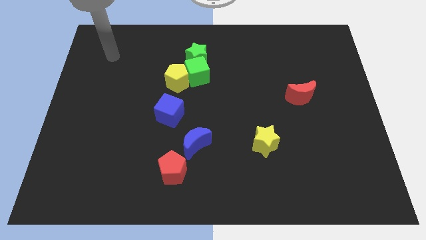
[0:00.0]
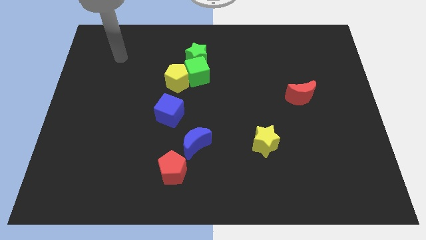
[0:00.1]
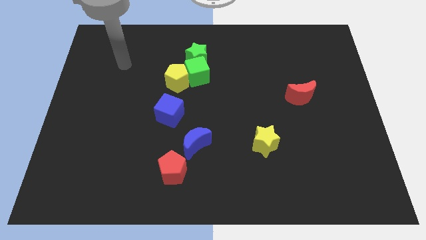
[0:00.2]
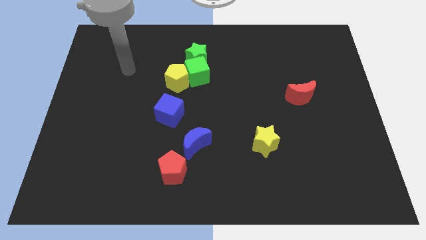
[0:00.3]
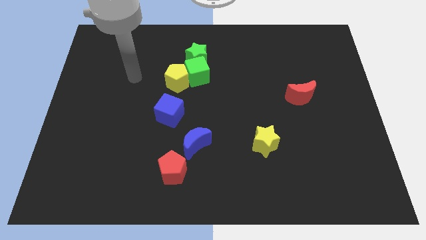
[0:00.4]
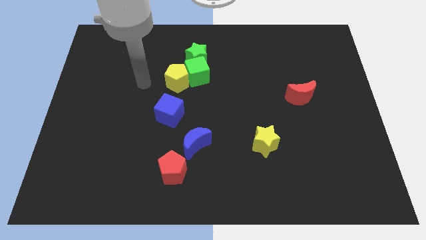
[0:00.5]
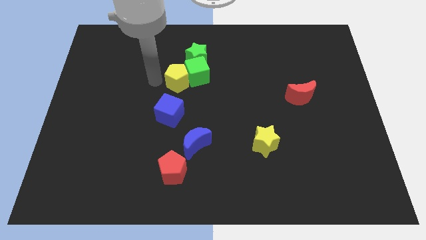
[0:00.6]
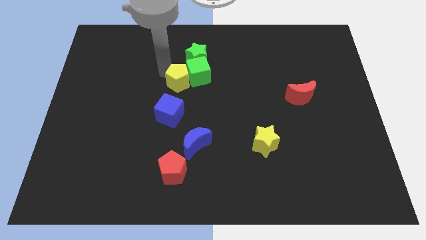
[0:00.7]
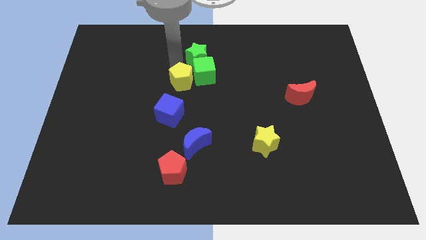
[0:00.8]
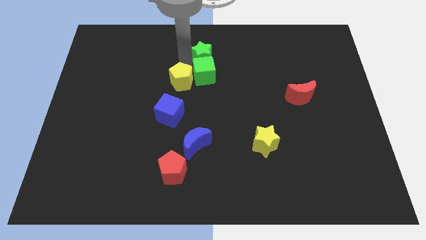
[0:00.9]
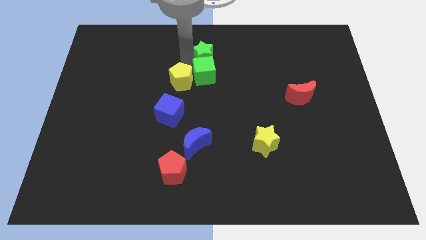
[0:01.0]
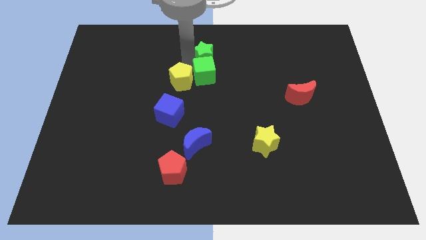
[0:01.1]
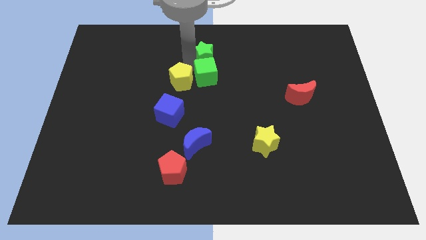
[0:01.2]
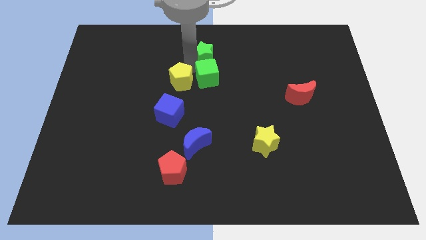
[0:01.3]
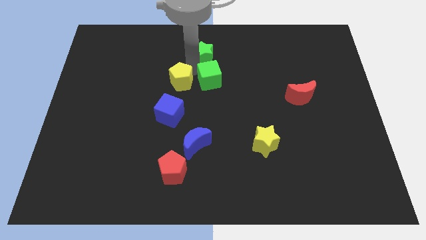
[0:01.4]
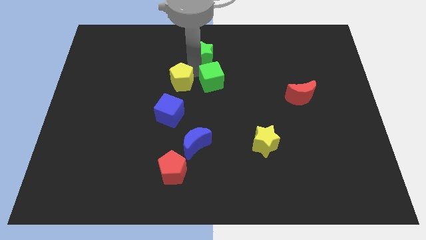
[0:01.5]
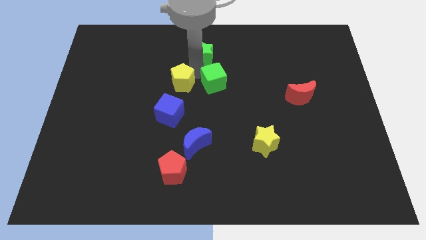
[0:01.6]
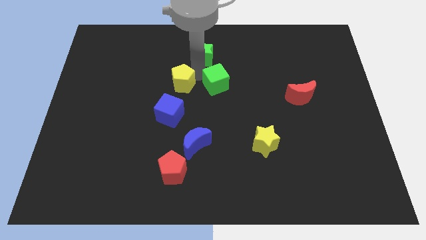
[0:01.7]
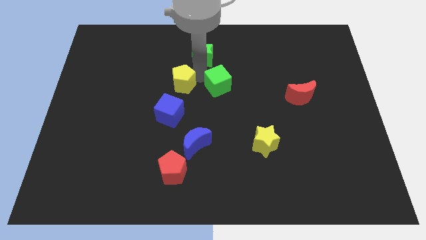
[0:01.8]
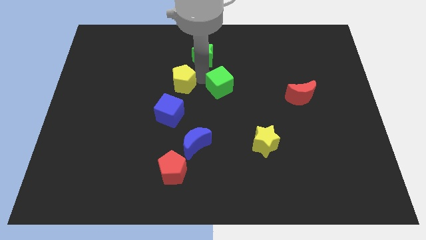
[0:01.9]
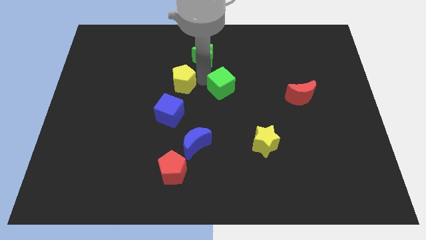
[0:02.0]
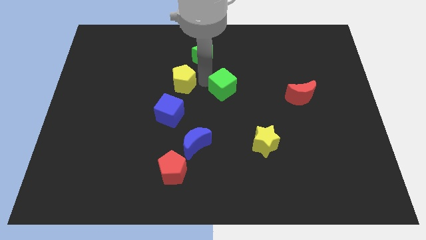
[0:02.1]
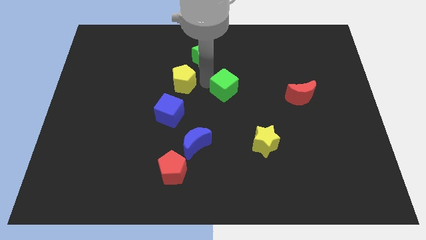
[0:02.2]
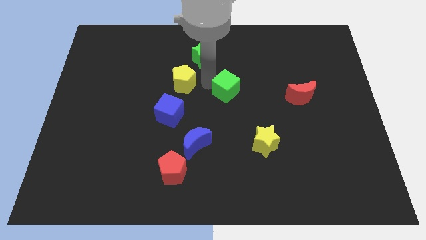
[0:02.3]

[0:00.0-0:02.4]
separate the green cube from the green star and yellow pentagon

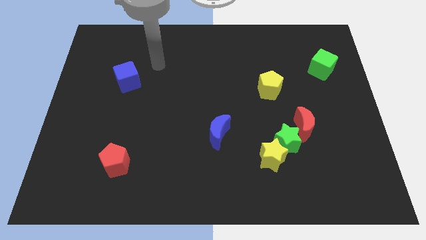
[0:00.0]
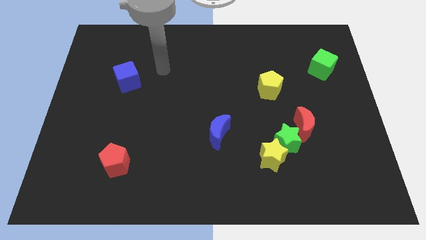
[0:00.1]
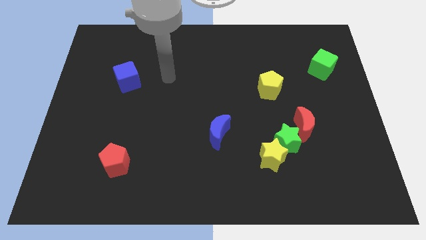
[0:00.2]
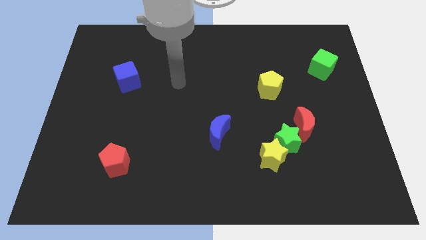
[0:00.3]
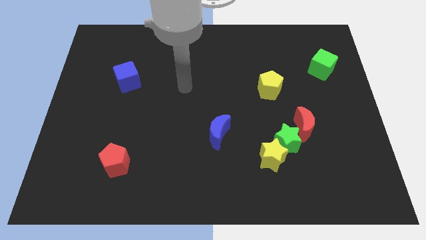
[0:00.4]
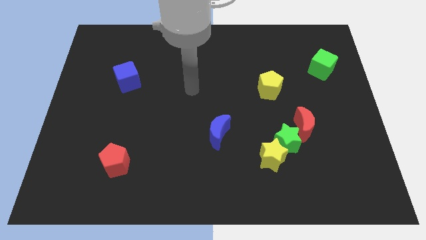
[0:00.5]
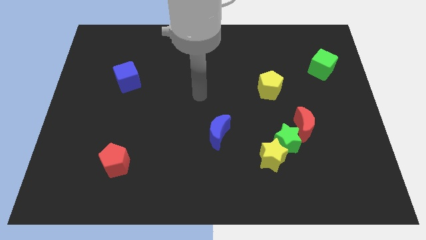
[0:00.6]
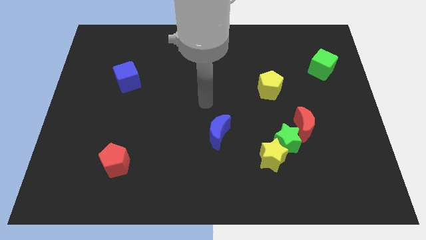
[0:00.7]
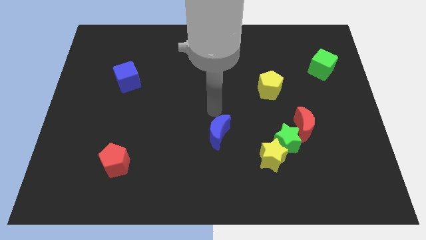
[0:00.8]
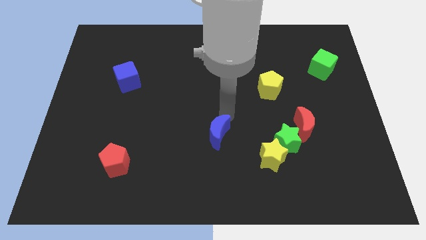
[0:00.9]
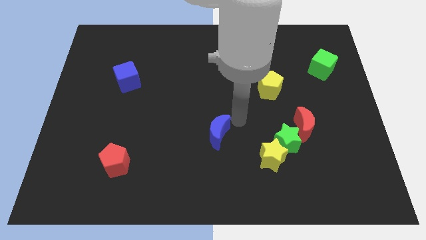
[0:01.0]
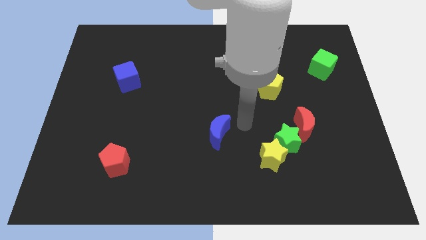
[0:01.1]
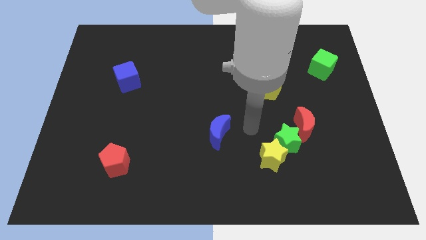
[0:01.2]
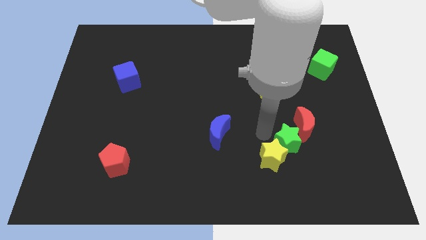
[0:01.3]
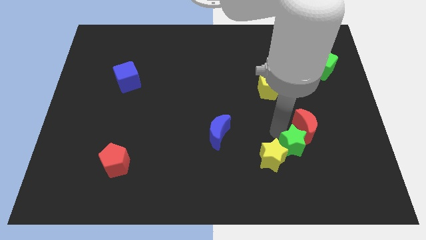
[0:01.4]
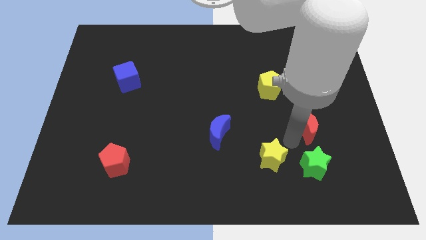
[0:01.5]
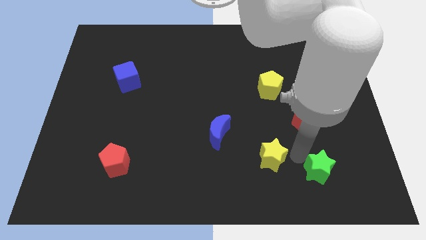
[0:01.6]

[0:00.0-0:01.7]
separate the yellow star from the green star

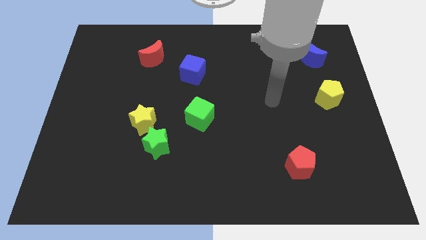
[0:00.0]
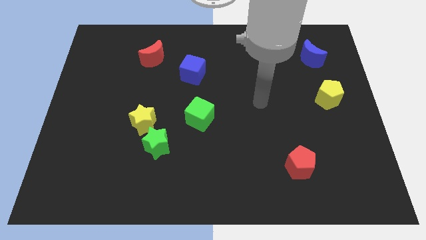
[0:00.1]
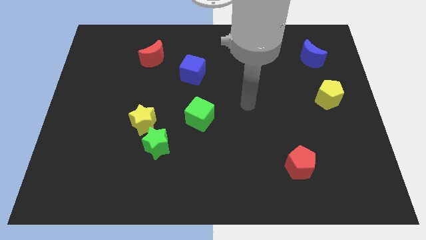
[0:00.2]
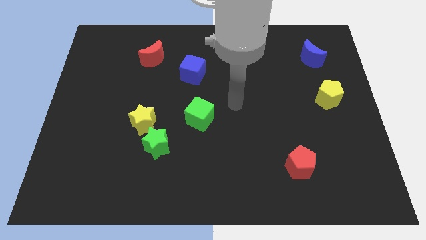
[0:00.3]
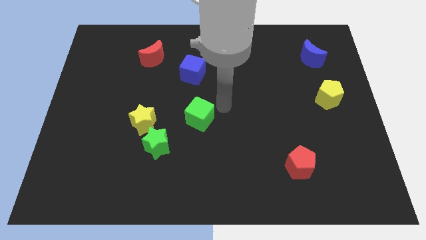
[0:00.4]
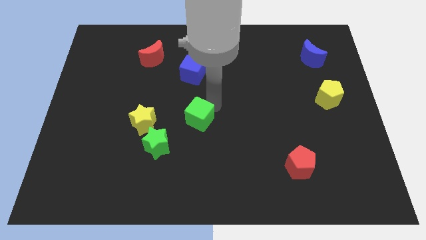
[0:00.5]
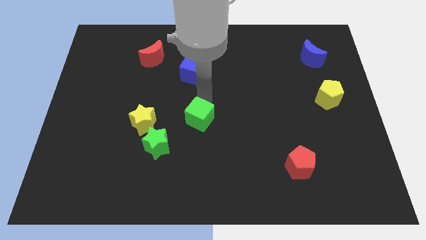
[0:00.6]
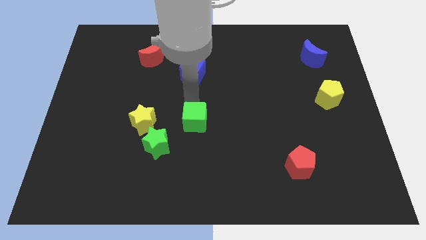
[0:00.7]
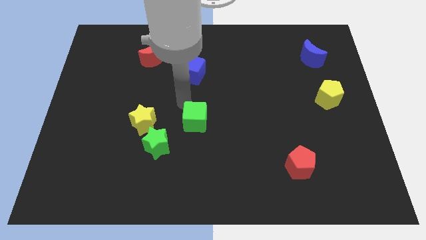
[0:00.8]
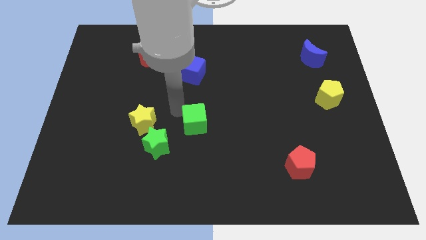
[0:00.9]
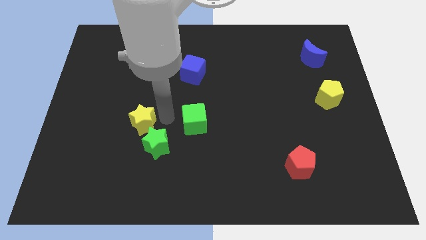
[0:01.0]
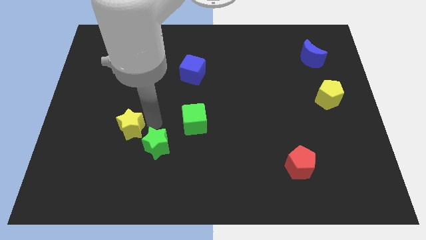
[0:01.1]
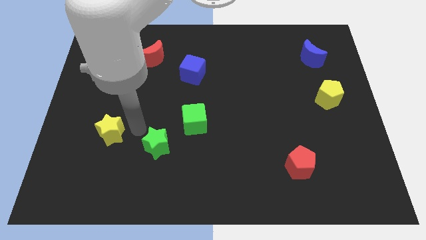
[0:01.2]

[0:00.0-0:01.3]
pull the green star apart from the yellow star

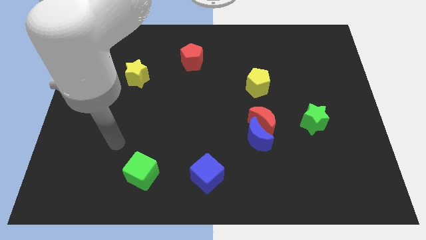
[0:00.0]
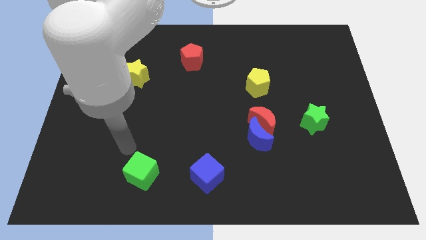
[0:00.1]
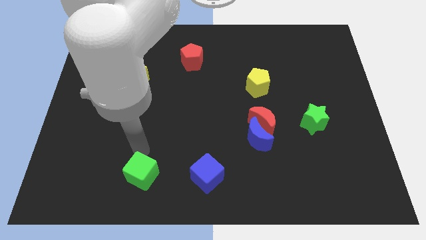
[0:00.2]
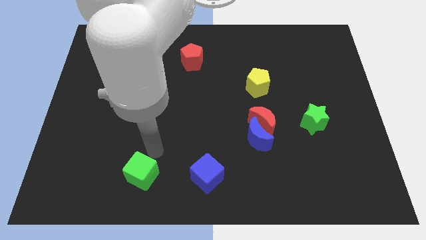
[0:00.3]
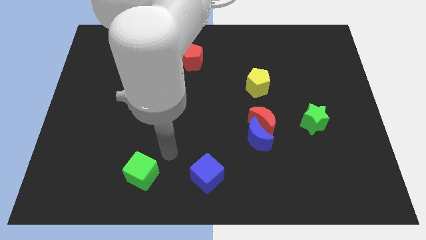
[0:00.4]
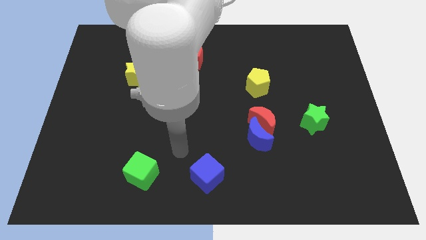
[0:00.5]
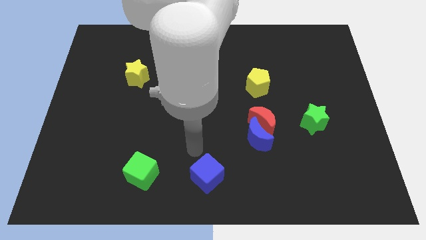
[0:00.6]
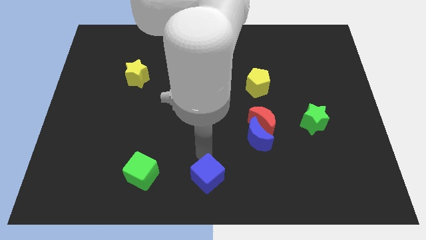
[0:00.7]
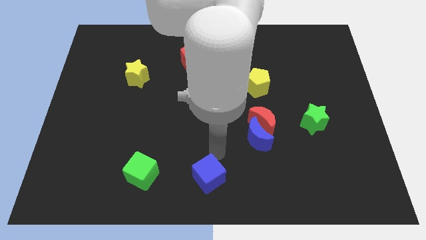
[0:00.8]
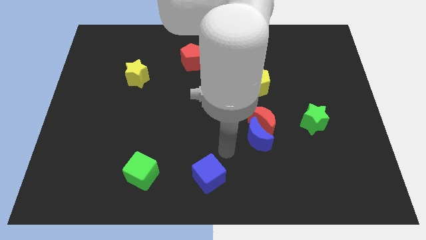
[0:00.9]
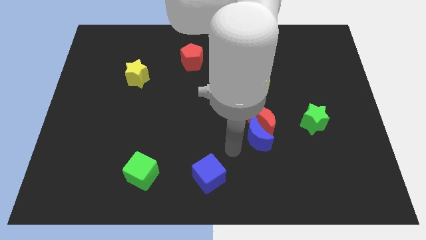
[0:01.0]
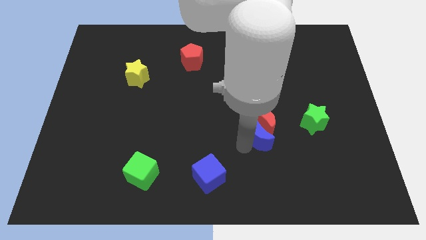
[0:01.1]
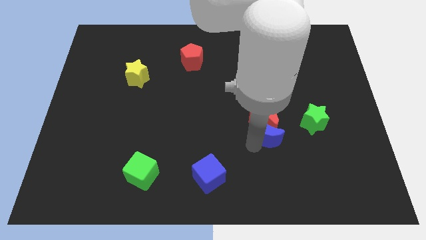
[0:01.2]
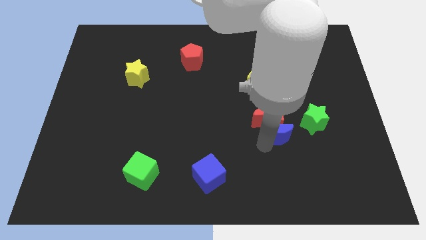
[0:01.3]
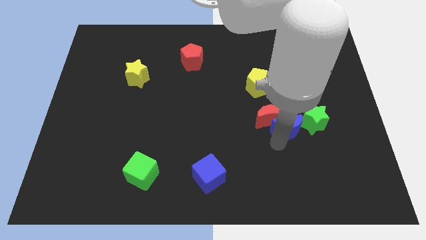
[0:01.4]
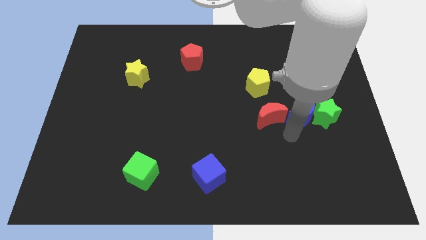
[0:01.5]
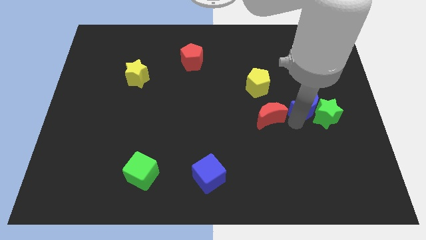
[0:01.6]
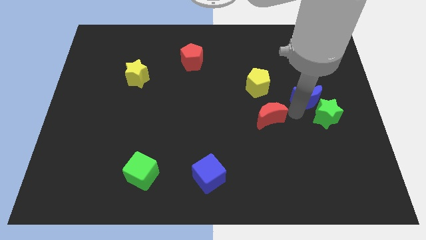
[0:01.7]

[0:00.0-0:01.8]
separate the red moon from the blue moon

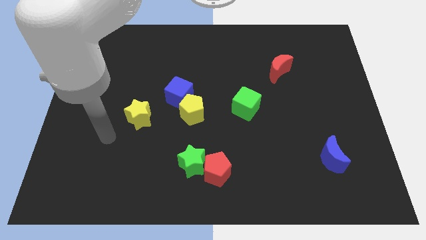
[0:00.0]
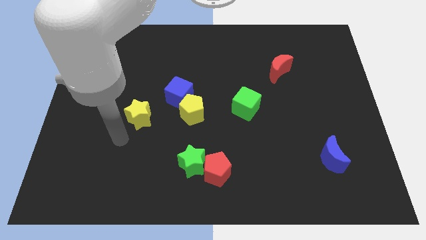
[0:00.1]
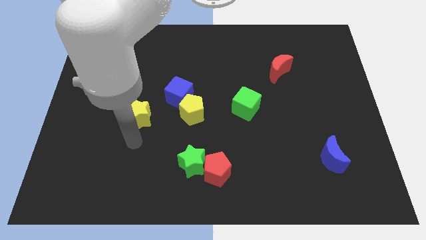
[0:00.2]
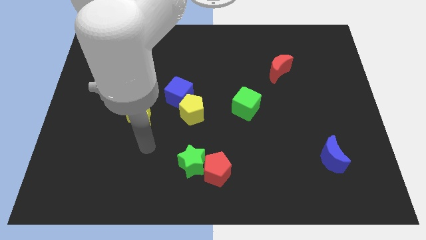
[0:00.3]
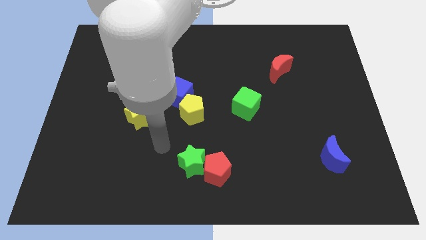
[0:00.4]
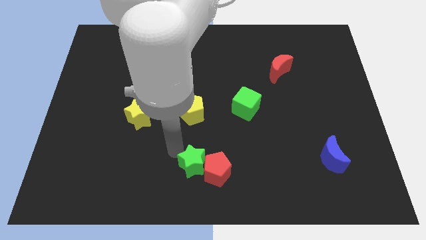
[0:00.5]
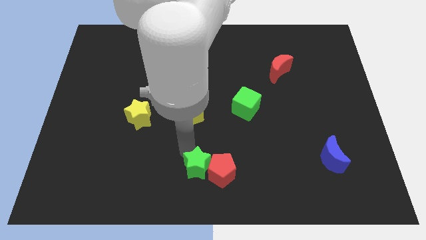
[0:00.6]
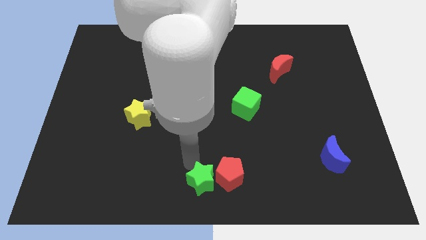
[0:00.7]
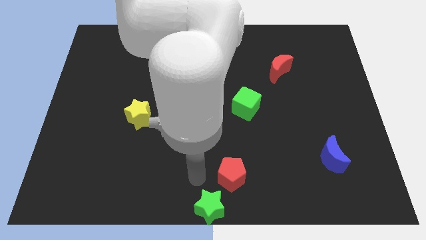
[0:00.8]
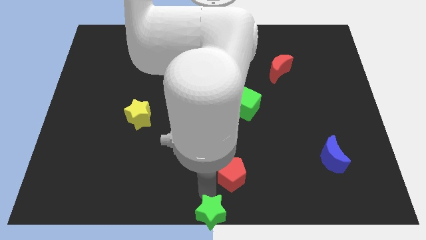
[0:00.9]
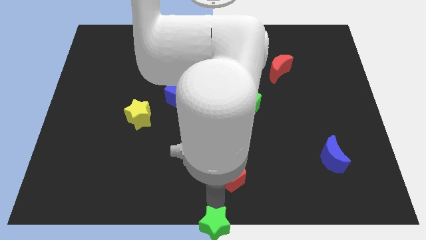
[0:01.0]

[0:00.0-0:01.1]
pull the red pentagon apart from the green star

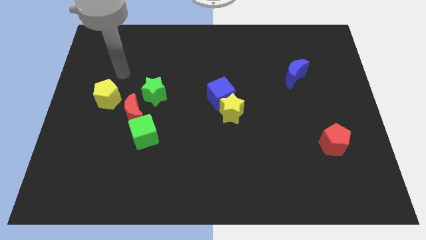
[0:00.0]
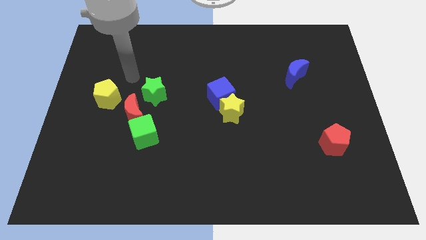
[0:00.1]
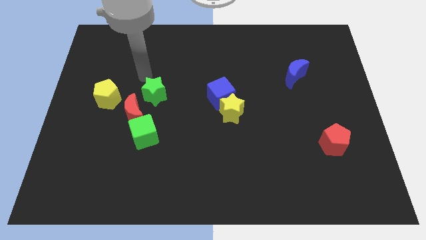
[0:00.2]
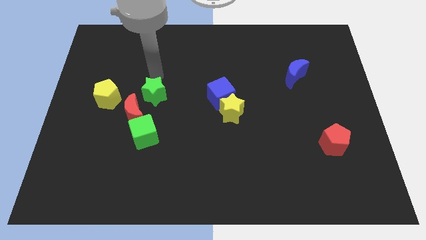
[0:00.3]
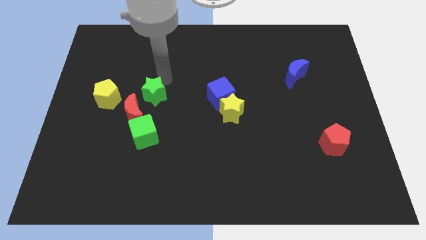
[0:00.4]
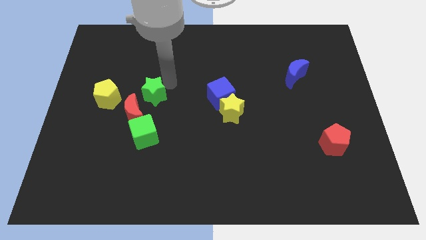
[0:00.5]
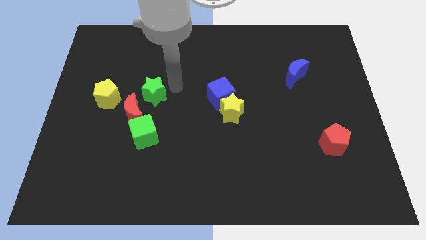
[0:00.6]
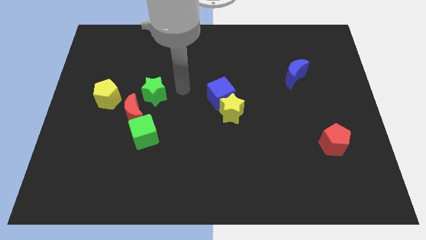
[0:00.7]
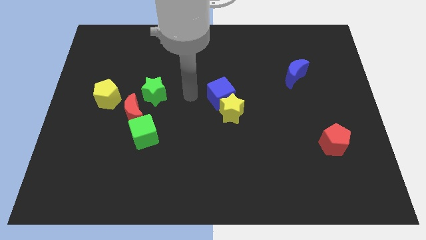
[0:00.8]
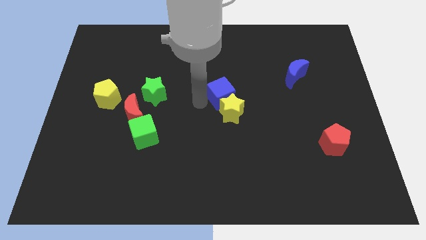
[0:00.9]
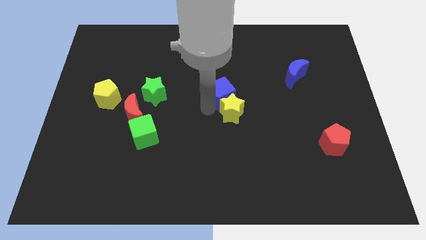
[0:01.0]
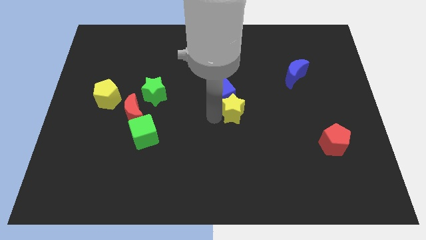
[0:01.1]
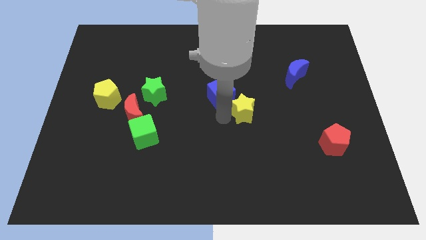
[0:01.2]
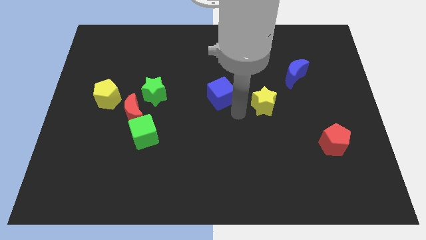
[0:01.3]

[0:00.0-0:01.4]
separate the blue cube from the yellow star
